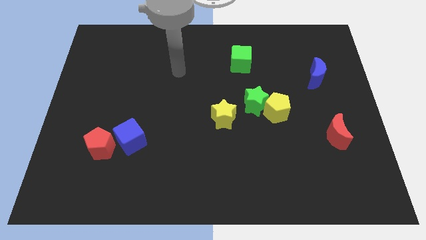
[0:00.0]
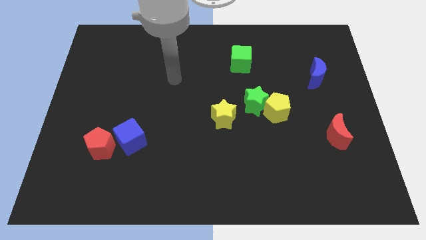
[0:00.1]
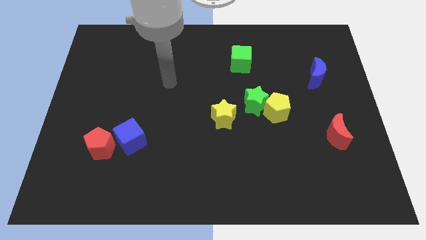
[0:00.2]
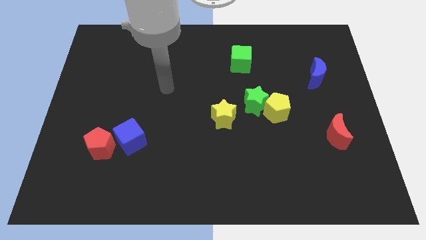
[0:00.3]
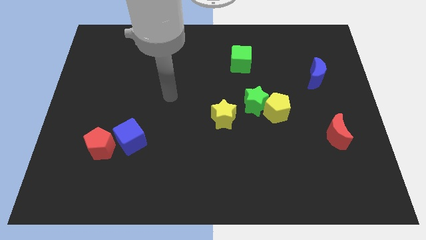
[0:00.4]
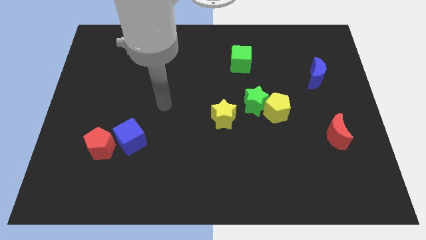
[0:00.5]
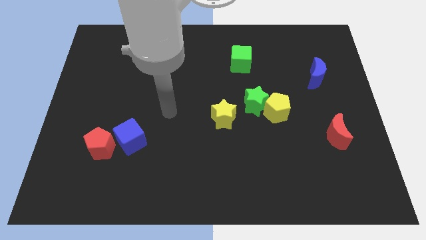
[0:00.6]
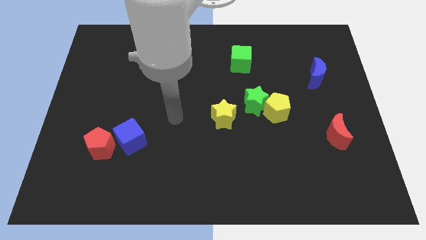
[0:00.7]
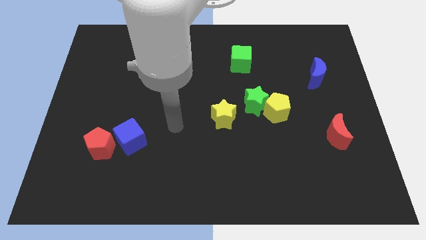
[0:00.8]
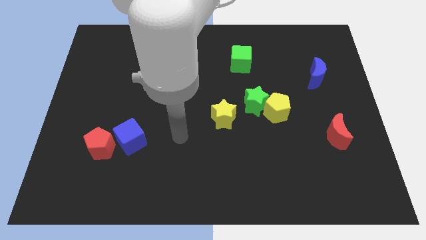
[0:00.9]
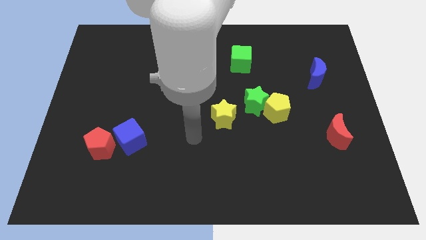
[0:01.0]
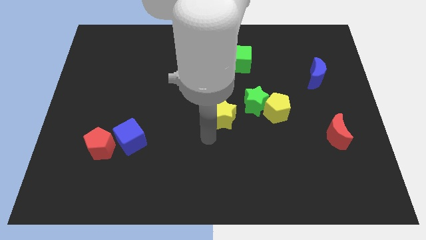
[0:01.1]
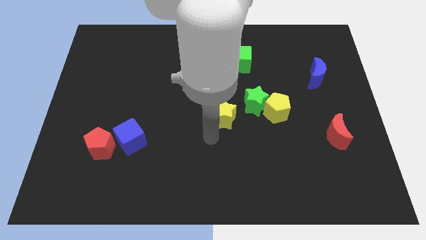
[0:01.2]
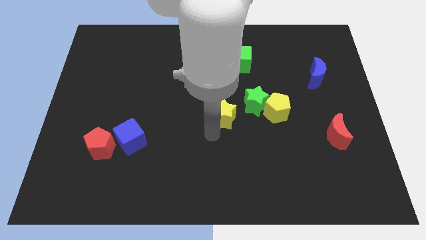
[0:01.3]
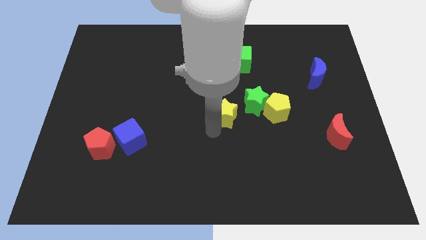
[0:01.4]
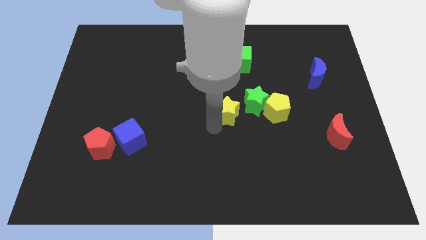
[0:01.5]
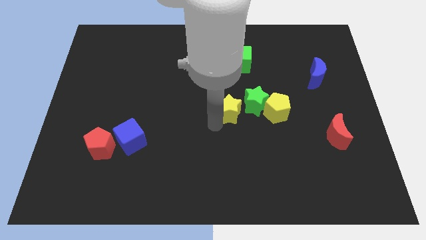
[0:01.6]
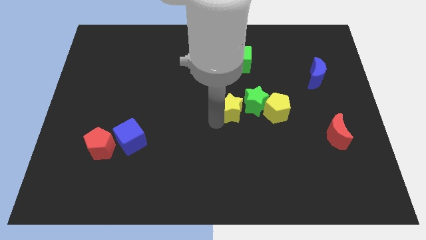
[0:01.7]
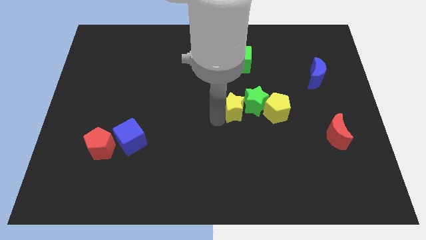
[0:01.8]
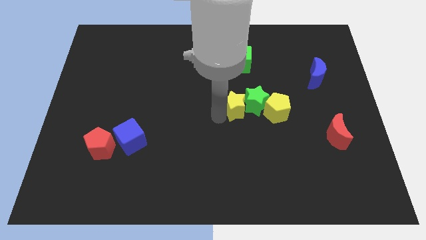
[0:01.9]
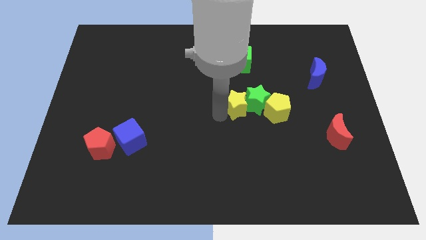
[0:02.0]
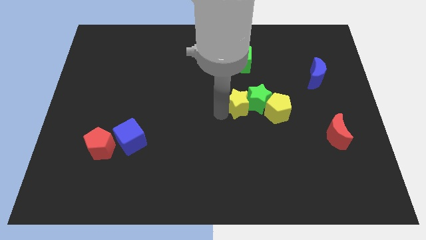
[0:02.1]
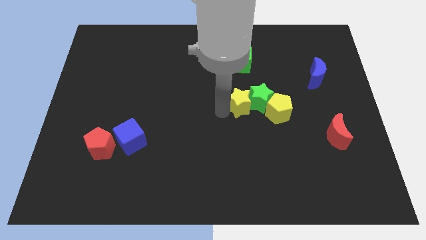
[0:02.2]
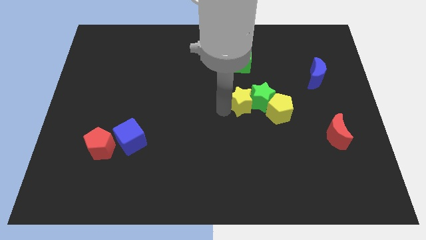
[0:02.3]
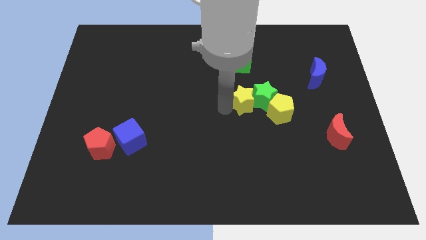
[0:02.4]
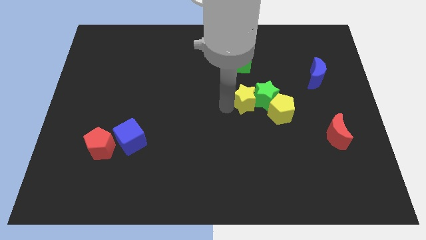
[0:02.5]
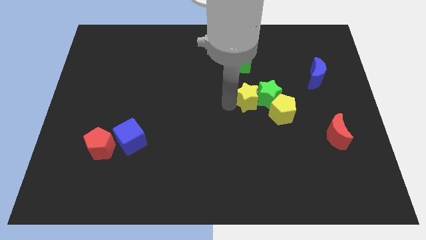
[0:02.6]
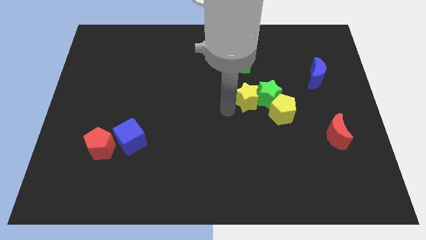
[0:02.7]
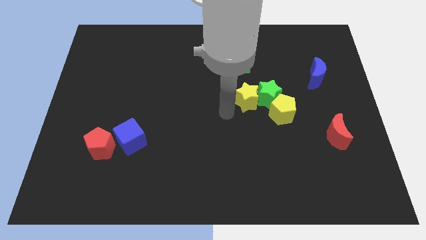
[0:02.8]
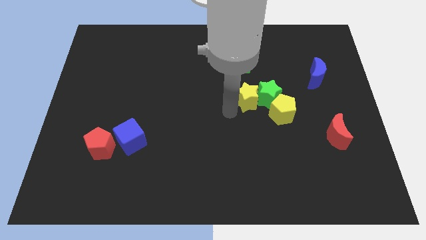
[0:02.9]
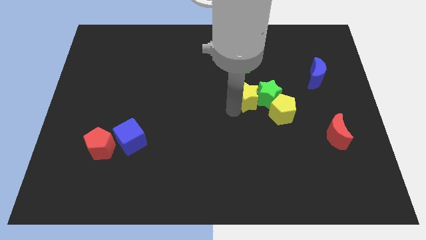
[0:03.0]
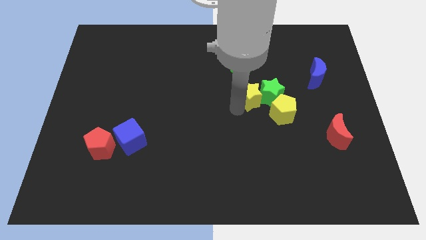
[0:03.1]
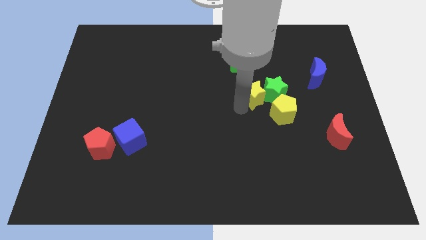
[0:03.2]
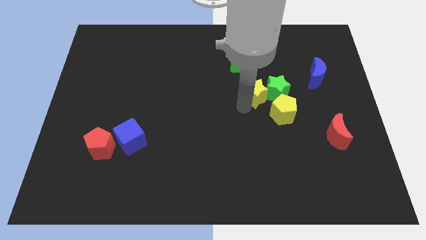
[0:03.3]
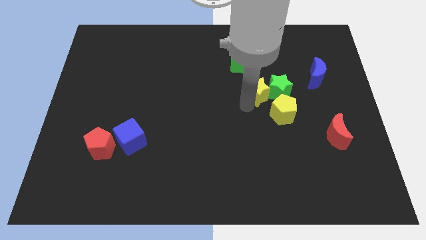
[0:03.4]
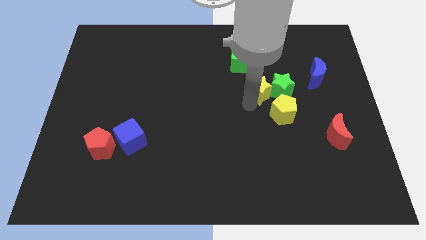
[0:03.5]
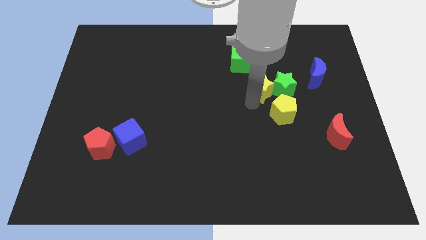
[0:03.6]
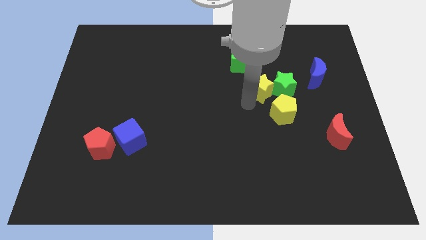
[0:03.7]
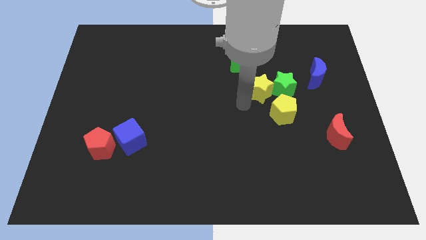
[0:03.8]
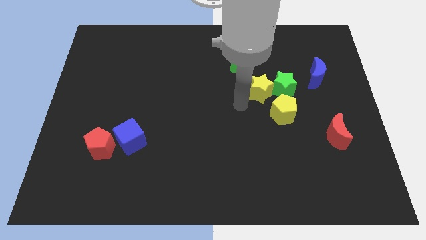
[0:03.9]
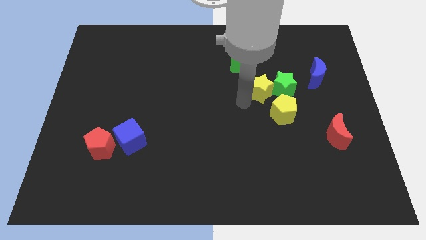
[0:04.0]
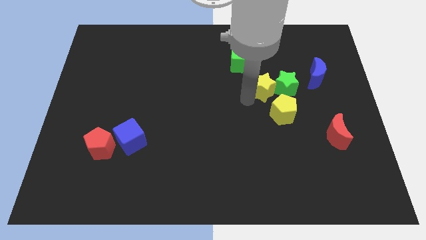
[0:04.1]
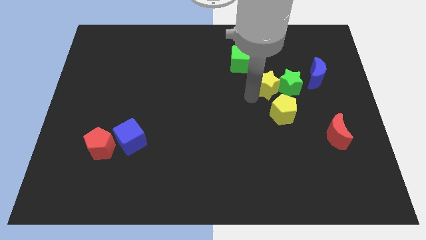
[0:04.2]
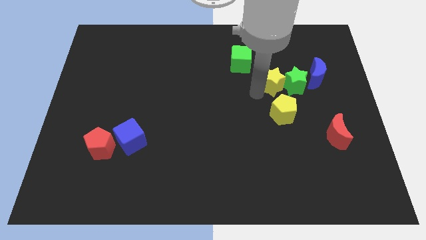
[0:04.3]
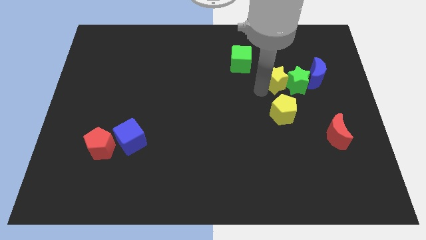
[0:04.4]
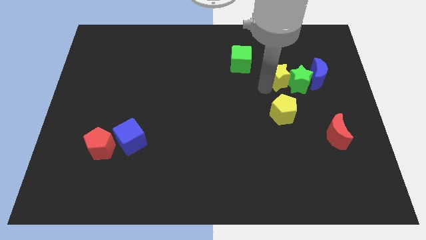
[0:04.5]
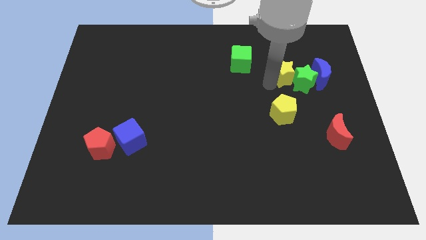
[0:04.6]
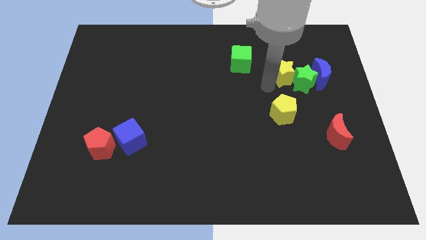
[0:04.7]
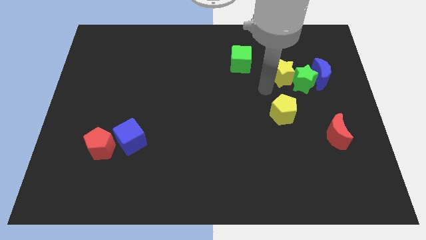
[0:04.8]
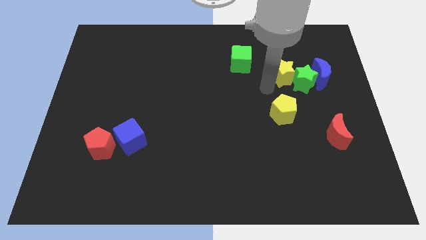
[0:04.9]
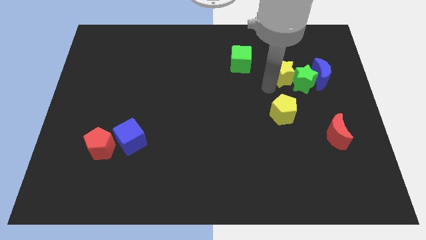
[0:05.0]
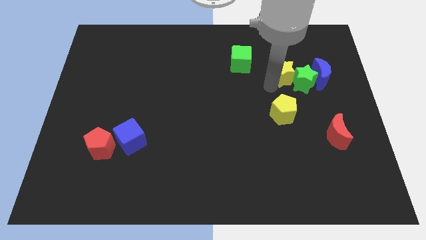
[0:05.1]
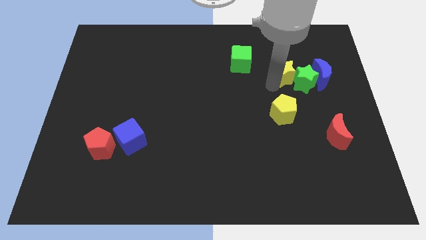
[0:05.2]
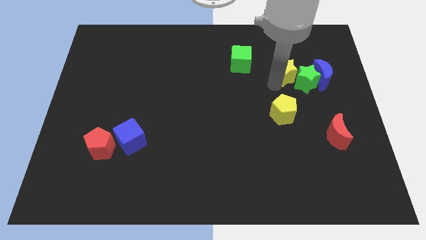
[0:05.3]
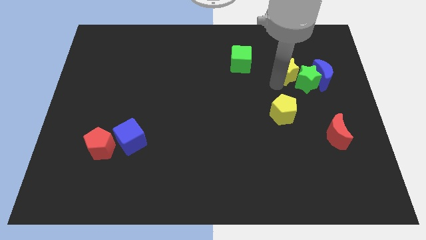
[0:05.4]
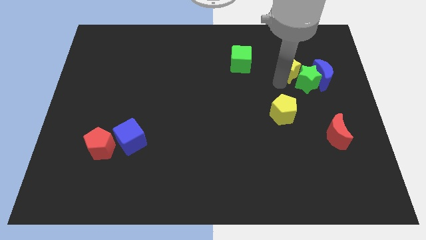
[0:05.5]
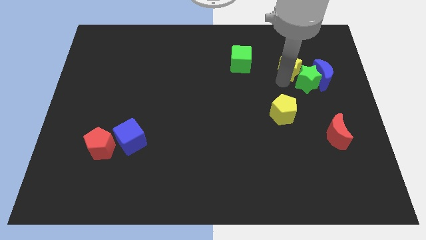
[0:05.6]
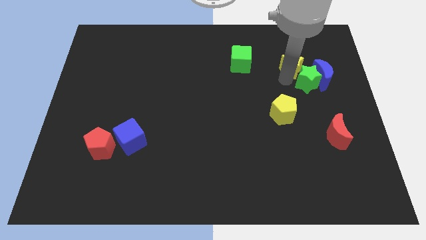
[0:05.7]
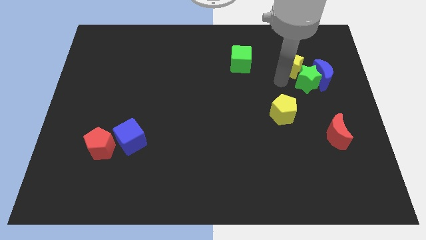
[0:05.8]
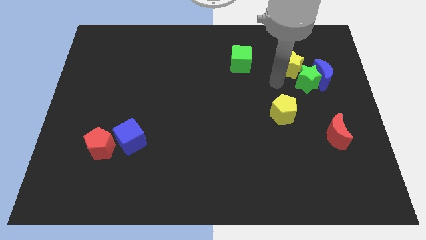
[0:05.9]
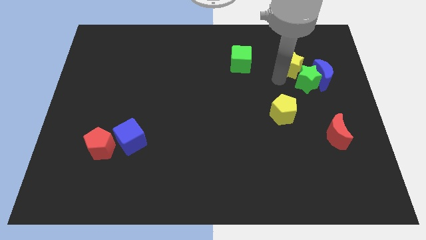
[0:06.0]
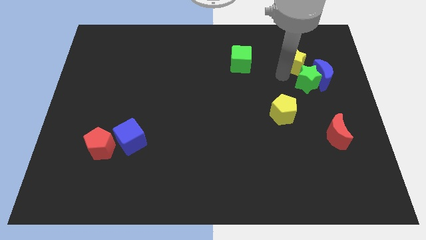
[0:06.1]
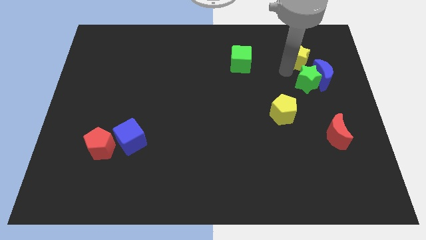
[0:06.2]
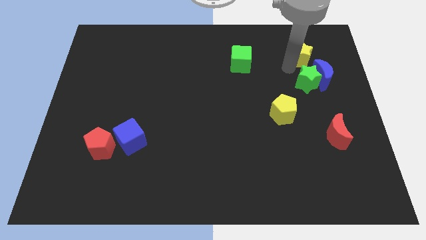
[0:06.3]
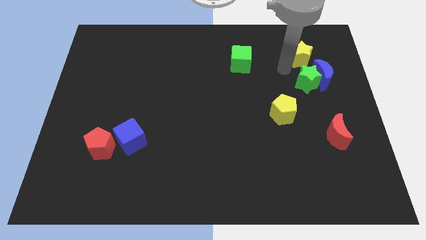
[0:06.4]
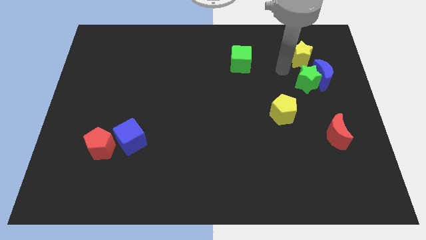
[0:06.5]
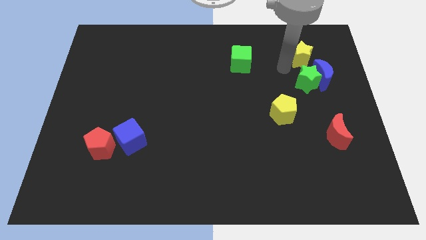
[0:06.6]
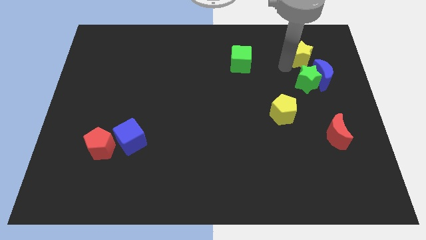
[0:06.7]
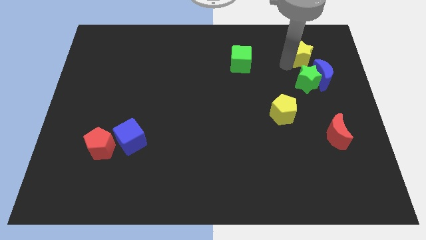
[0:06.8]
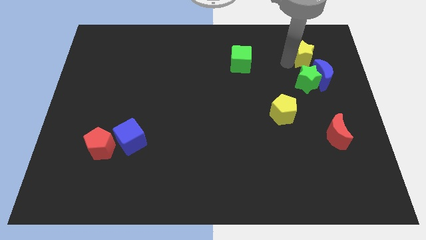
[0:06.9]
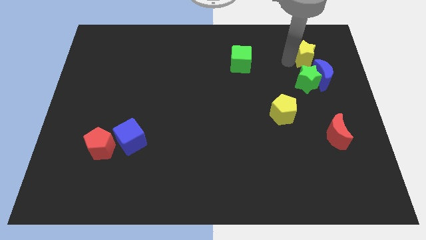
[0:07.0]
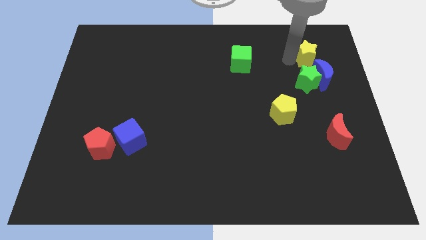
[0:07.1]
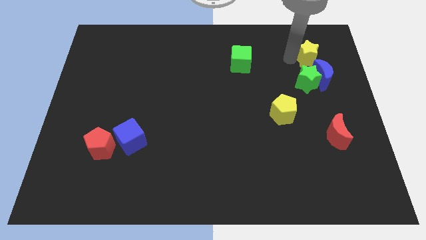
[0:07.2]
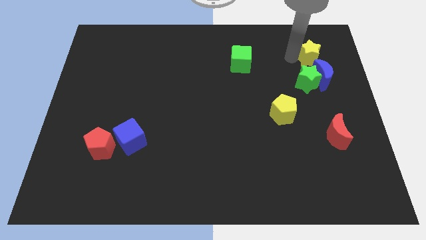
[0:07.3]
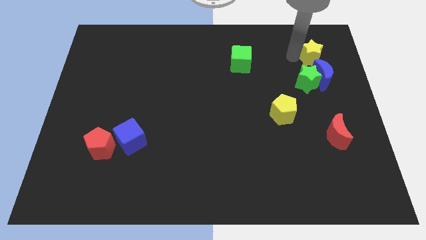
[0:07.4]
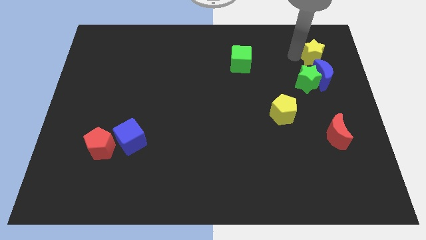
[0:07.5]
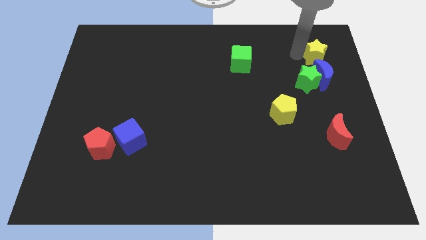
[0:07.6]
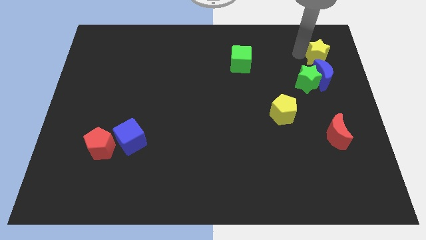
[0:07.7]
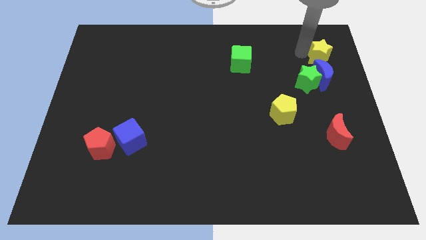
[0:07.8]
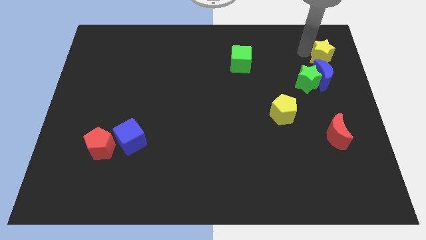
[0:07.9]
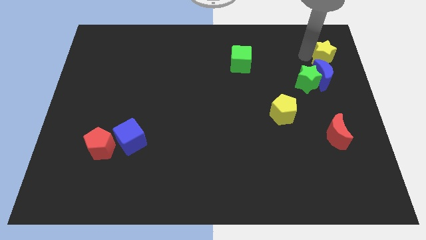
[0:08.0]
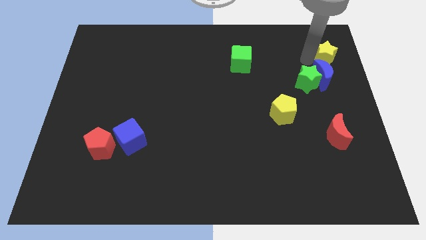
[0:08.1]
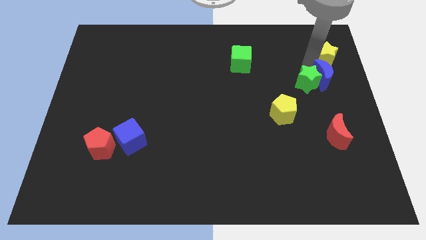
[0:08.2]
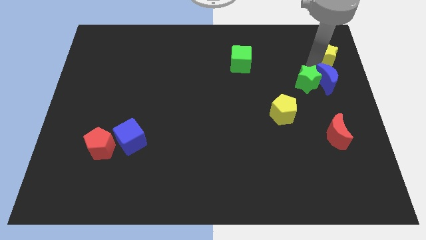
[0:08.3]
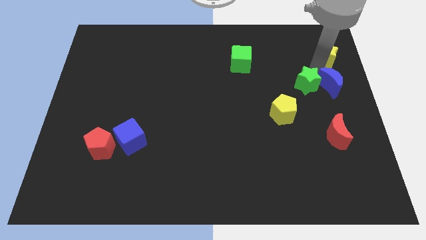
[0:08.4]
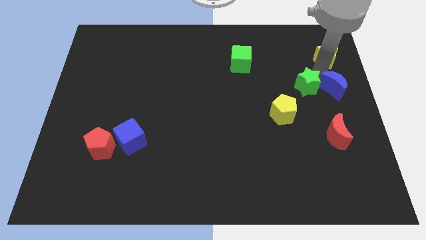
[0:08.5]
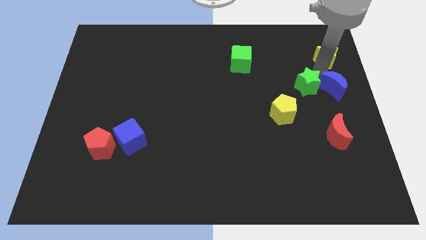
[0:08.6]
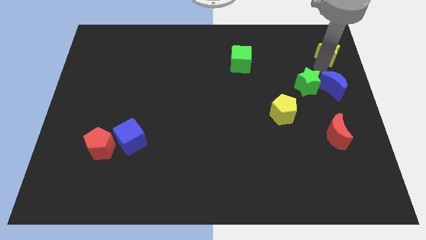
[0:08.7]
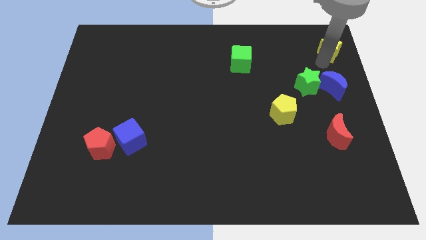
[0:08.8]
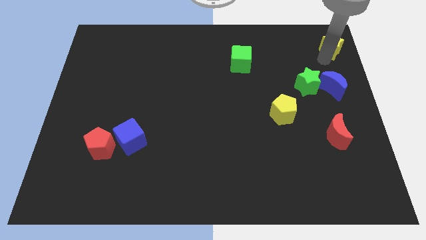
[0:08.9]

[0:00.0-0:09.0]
push the yellow star to the upper right corner
